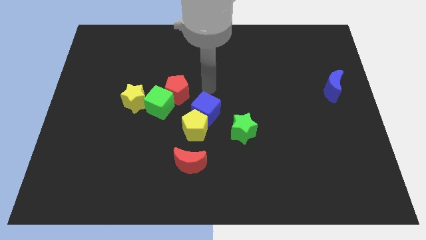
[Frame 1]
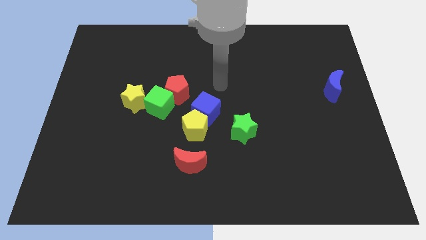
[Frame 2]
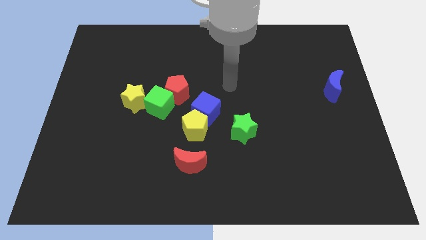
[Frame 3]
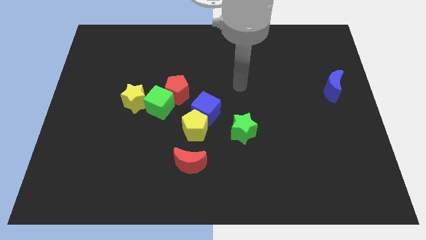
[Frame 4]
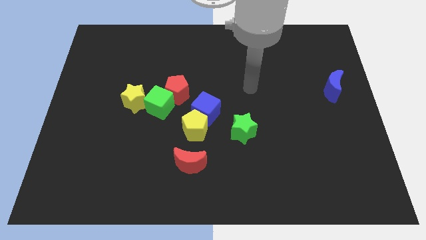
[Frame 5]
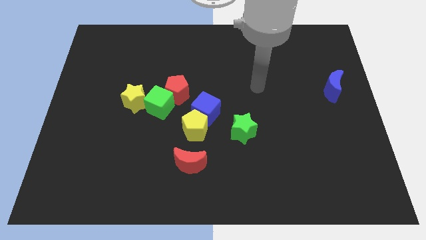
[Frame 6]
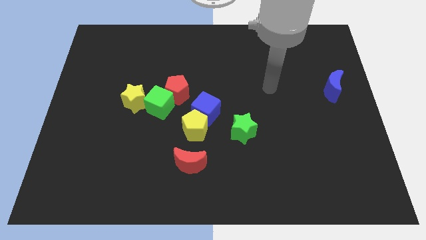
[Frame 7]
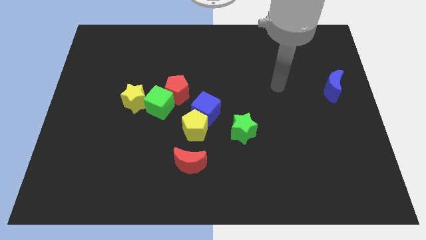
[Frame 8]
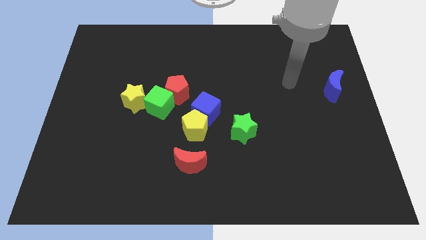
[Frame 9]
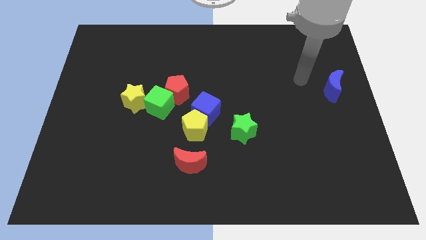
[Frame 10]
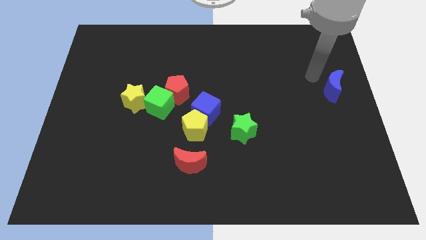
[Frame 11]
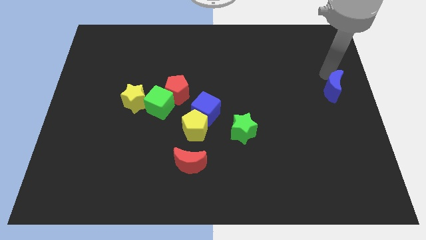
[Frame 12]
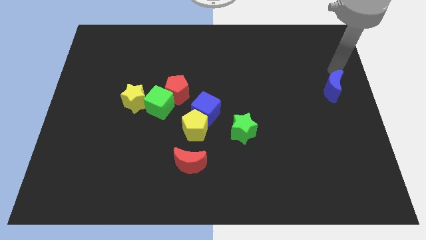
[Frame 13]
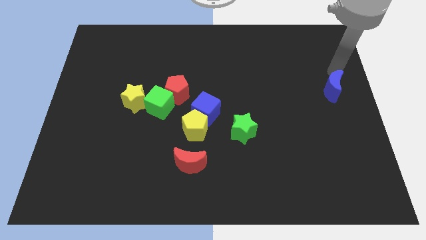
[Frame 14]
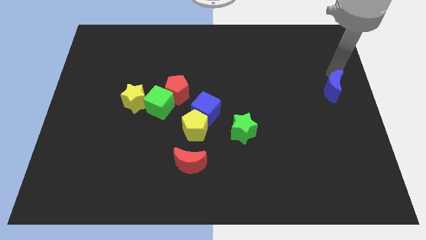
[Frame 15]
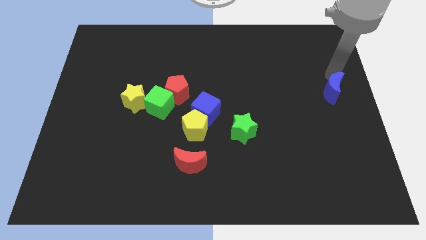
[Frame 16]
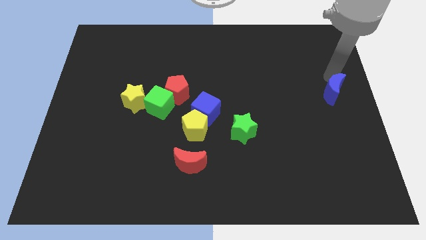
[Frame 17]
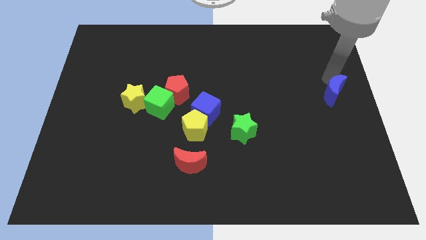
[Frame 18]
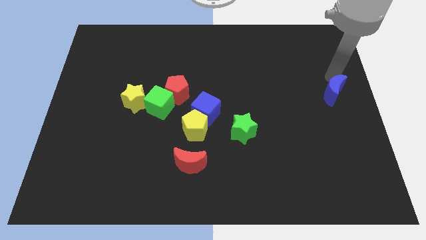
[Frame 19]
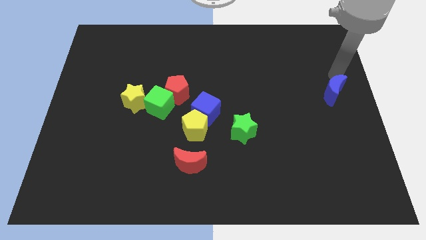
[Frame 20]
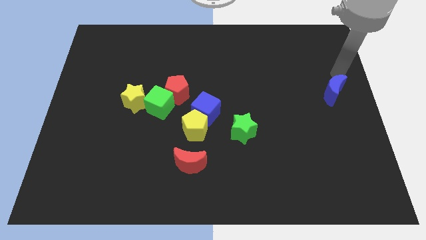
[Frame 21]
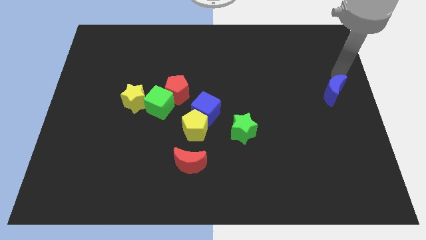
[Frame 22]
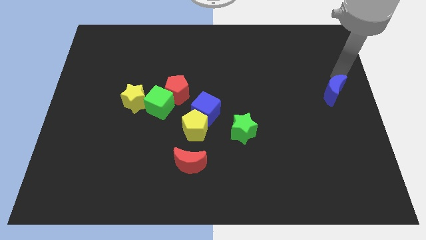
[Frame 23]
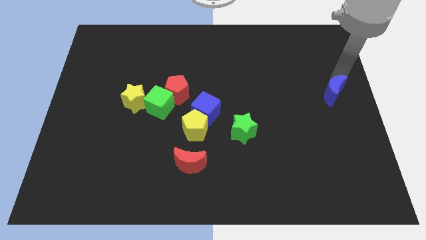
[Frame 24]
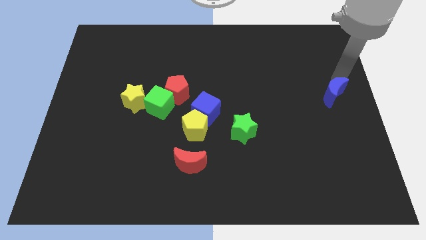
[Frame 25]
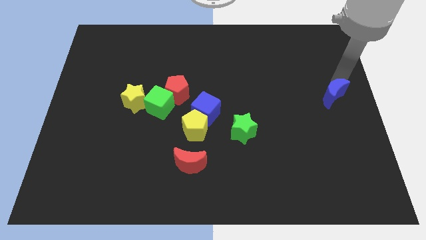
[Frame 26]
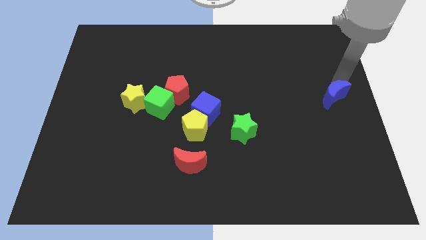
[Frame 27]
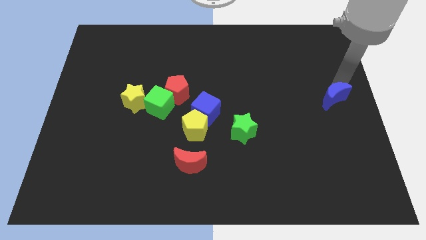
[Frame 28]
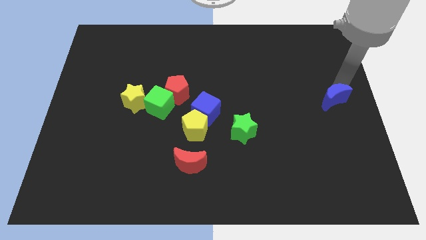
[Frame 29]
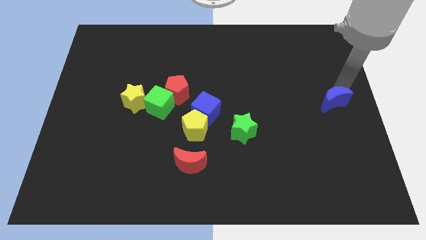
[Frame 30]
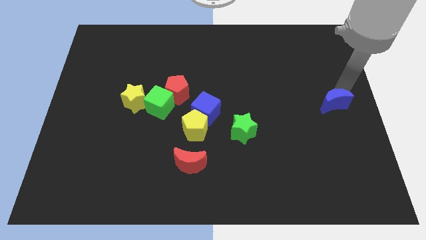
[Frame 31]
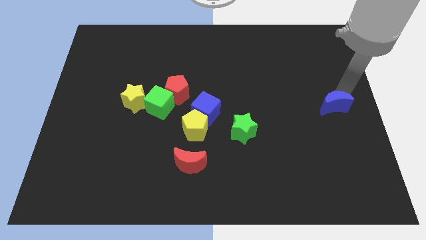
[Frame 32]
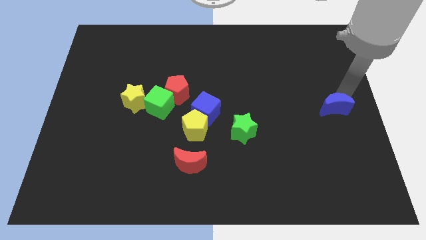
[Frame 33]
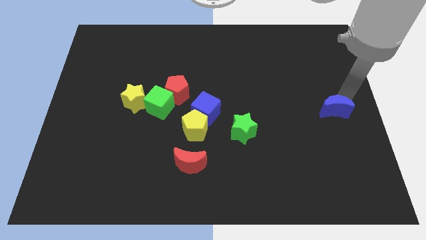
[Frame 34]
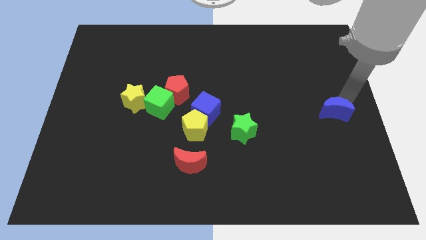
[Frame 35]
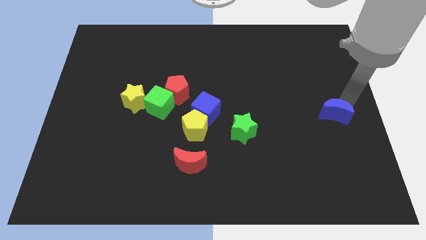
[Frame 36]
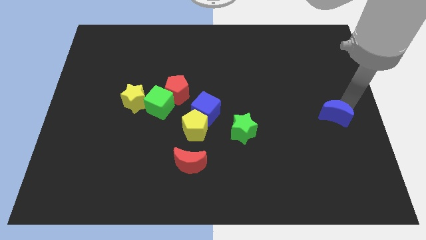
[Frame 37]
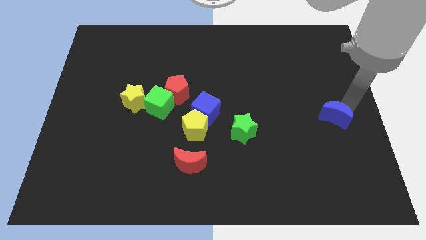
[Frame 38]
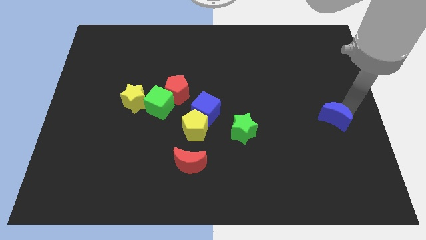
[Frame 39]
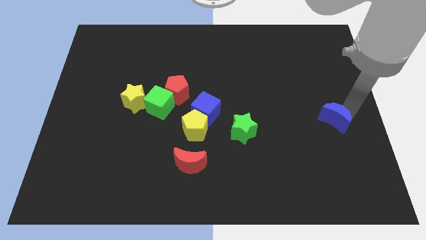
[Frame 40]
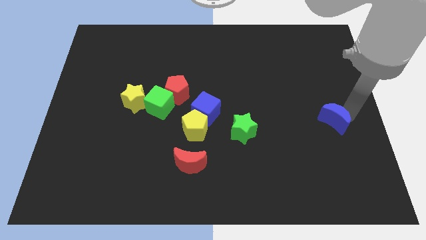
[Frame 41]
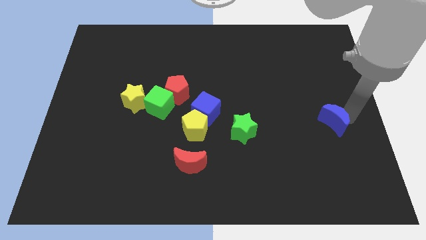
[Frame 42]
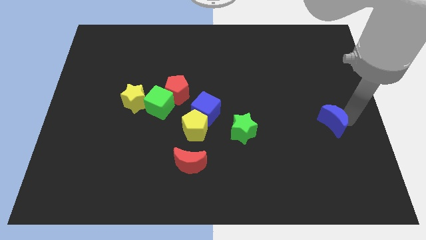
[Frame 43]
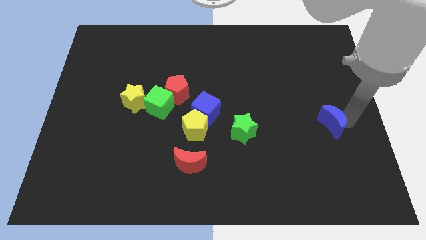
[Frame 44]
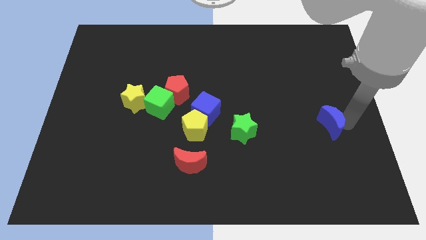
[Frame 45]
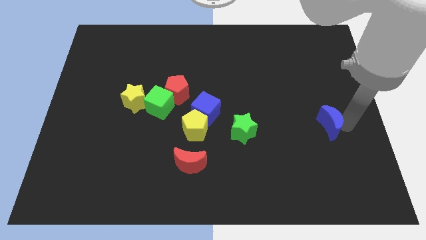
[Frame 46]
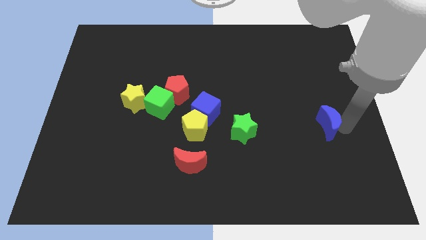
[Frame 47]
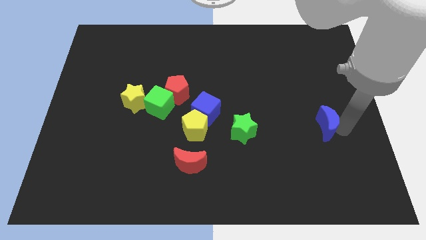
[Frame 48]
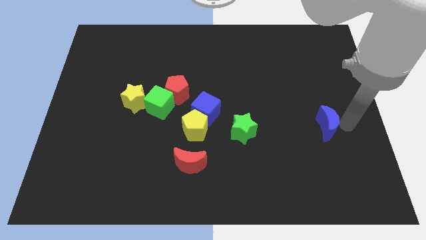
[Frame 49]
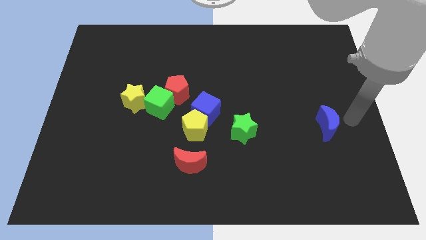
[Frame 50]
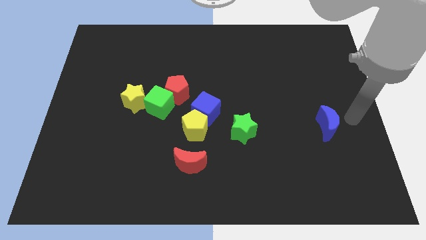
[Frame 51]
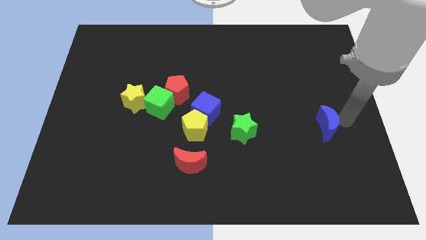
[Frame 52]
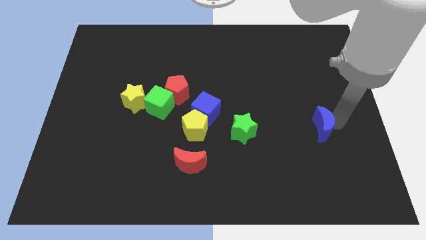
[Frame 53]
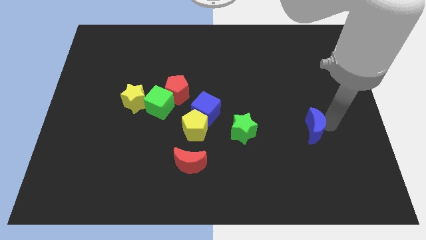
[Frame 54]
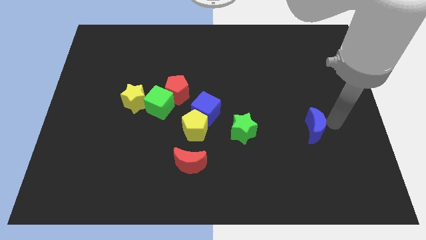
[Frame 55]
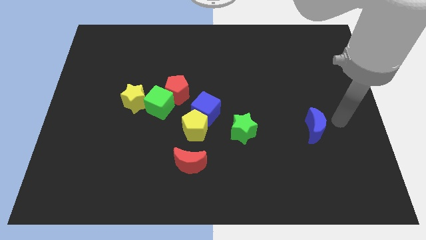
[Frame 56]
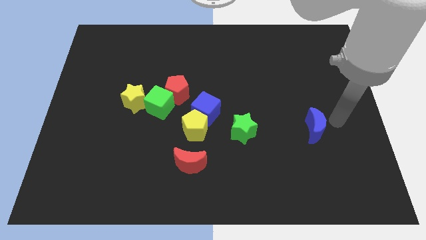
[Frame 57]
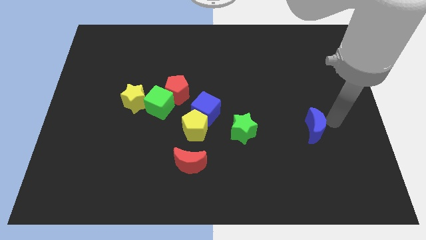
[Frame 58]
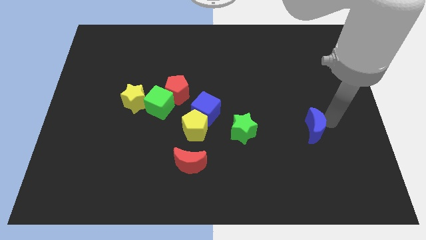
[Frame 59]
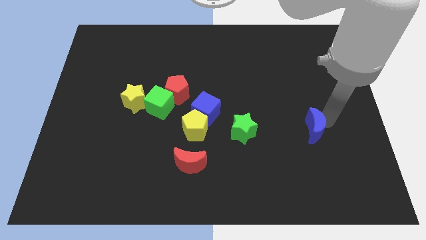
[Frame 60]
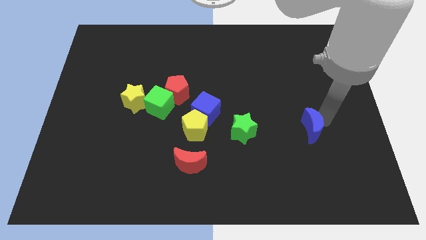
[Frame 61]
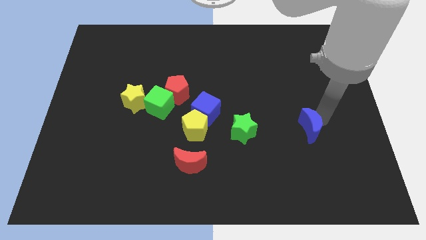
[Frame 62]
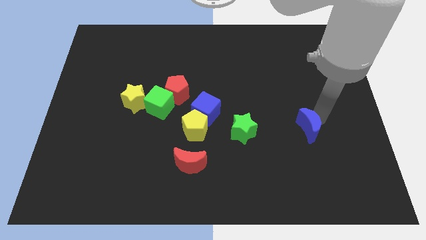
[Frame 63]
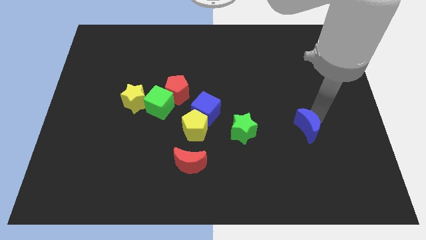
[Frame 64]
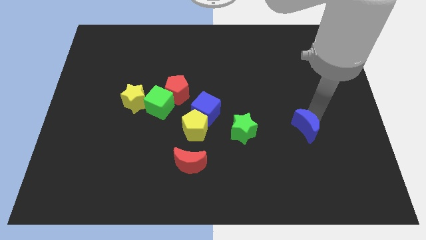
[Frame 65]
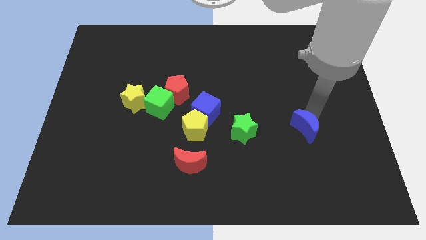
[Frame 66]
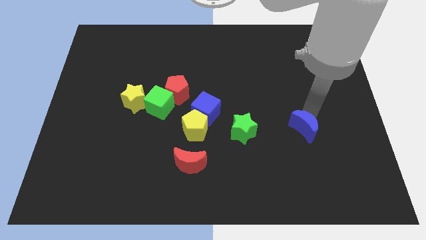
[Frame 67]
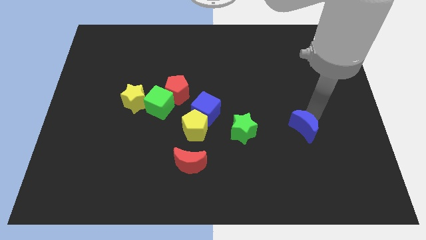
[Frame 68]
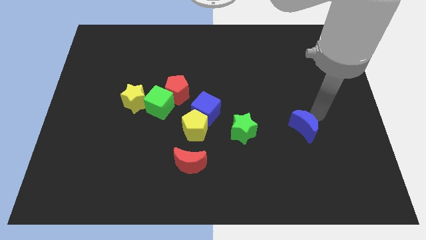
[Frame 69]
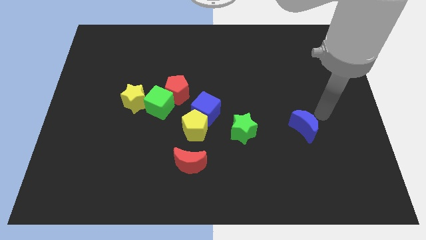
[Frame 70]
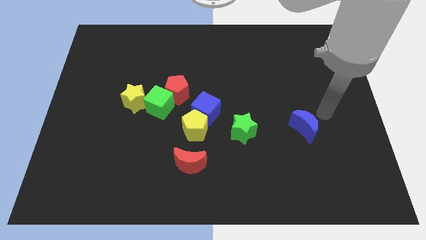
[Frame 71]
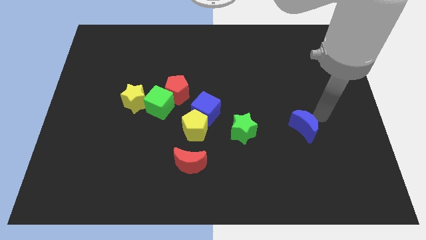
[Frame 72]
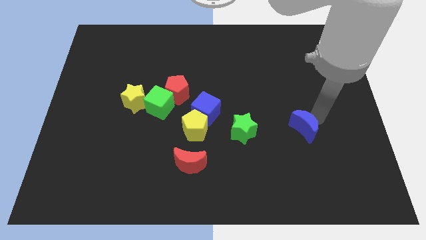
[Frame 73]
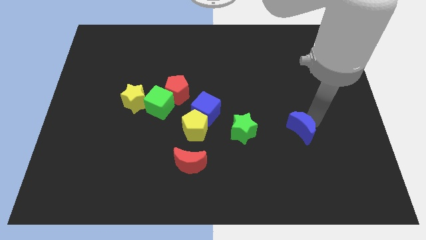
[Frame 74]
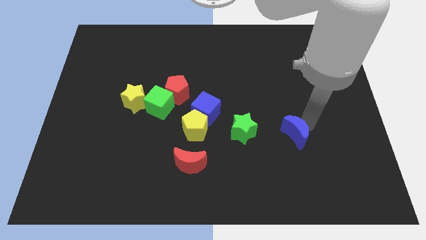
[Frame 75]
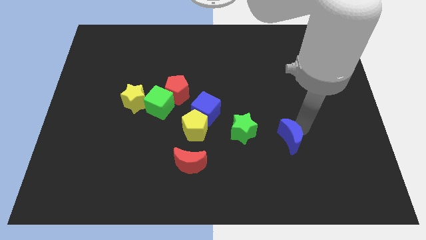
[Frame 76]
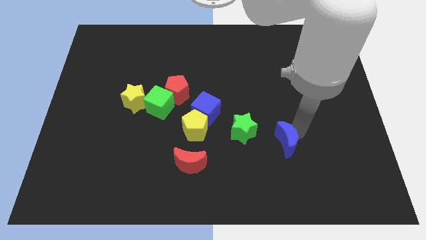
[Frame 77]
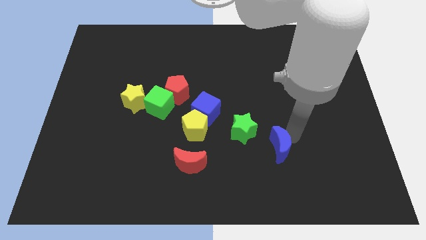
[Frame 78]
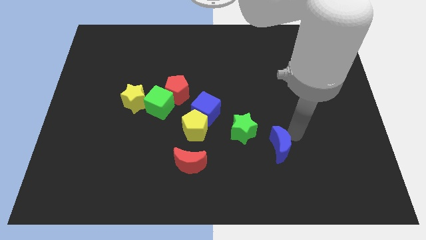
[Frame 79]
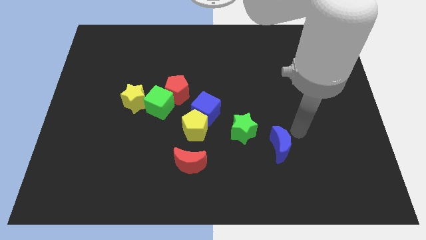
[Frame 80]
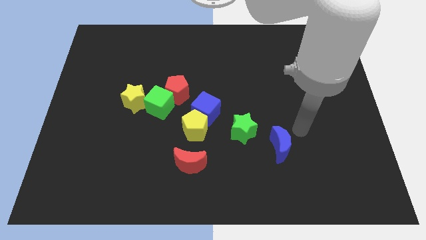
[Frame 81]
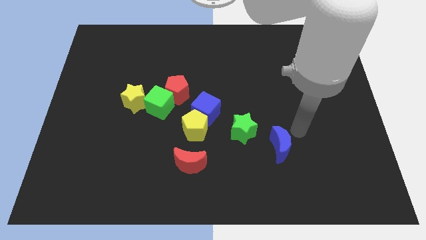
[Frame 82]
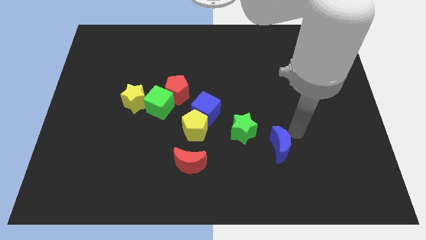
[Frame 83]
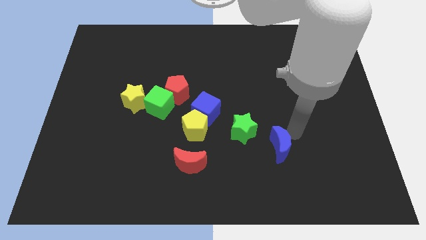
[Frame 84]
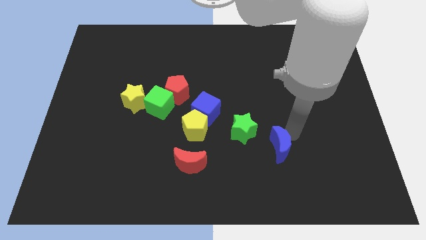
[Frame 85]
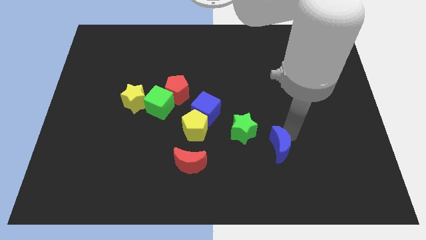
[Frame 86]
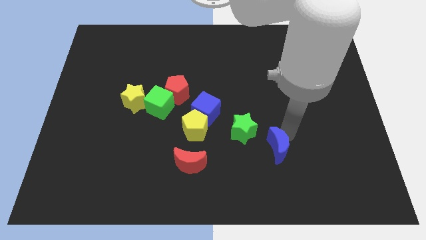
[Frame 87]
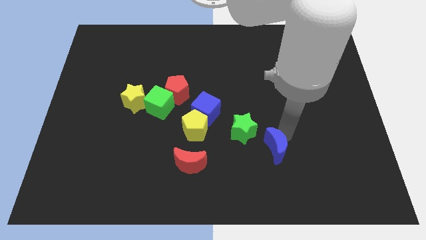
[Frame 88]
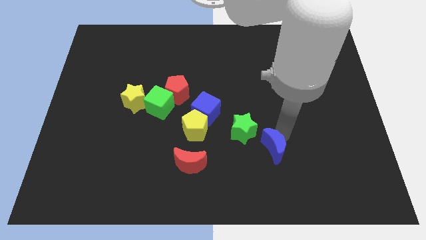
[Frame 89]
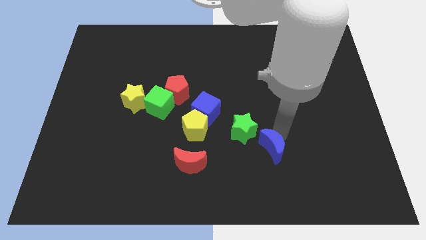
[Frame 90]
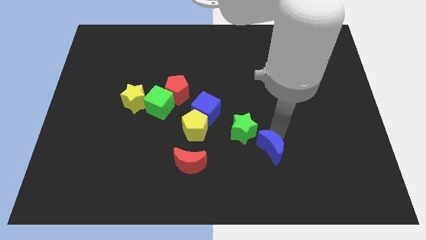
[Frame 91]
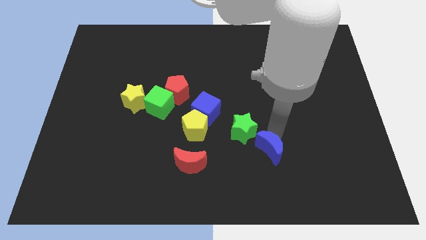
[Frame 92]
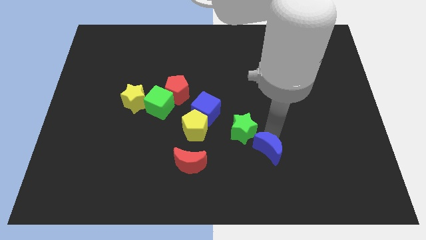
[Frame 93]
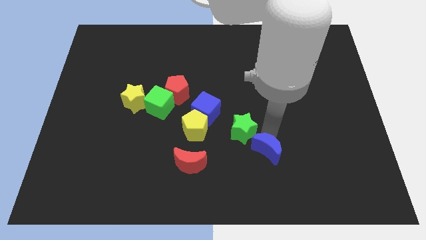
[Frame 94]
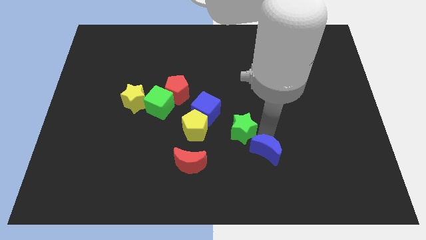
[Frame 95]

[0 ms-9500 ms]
slide the blue moon to the bottom of the green star
